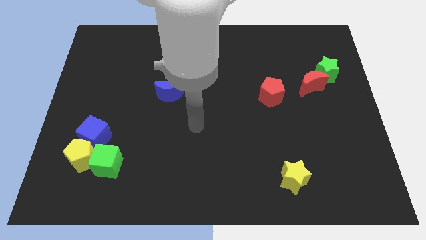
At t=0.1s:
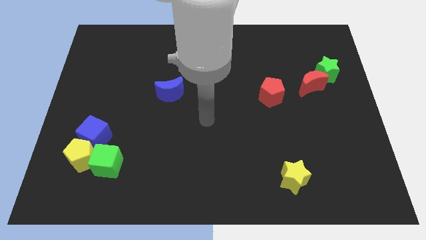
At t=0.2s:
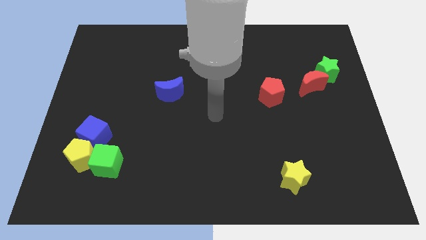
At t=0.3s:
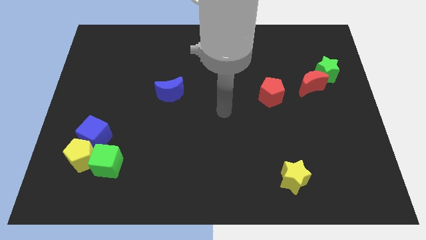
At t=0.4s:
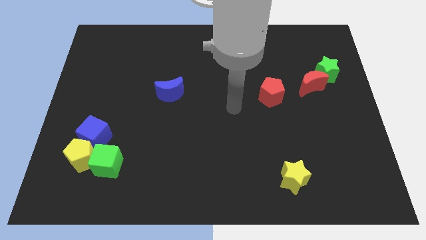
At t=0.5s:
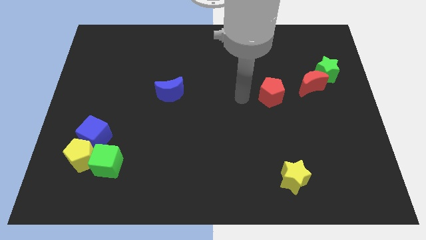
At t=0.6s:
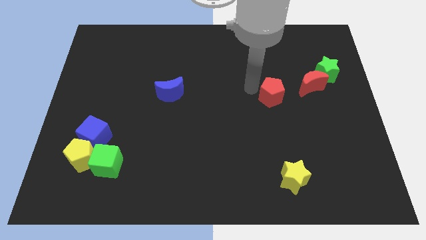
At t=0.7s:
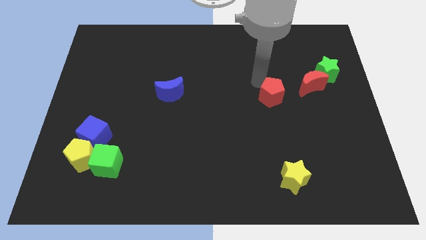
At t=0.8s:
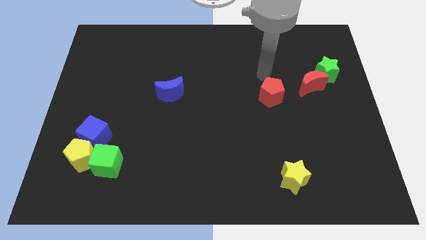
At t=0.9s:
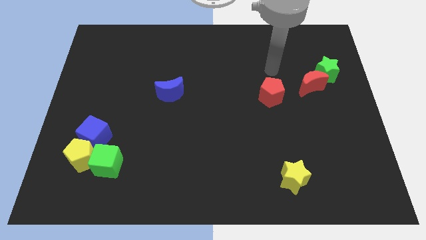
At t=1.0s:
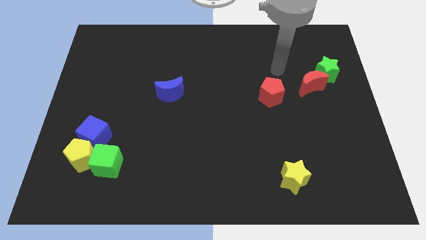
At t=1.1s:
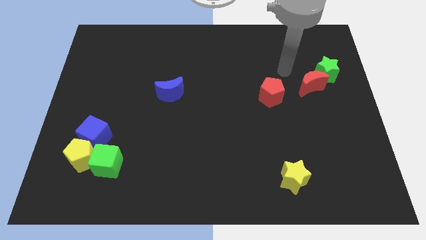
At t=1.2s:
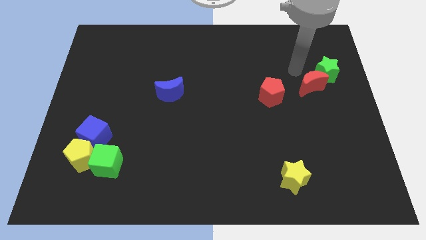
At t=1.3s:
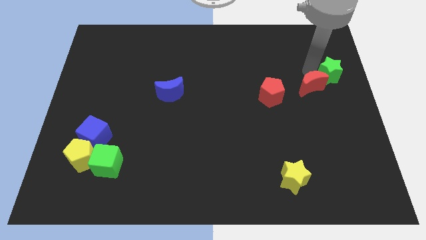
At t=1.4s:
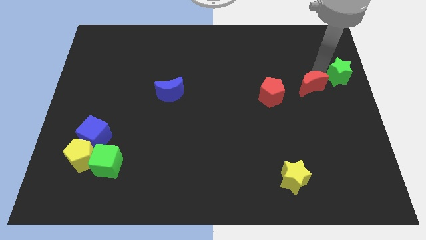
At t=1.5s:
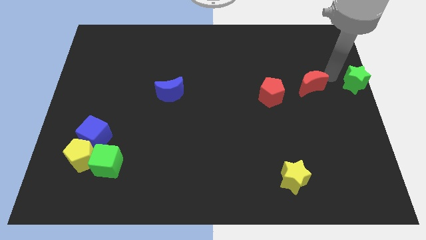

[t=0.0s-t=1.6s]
move the red moon away from the green star

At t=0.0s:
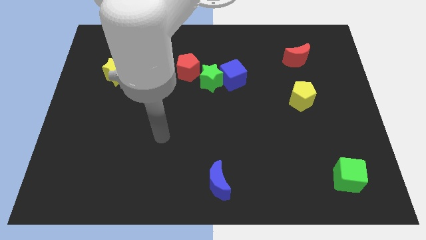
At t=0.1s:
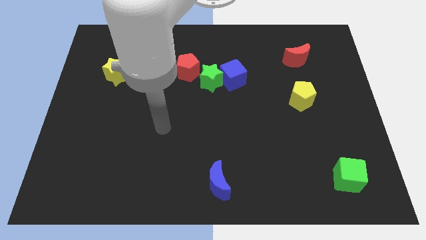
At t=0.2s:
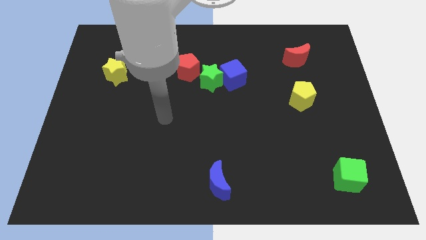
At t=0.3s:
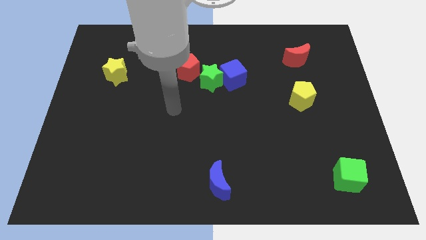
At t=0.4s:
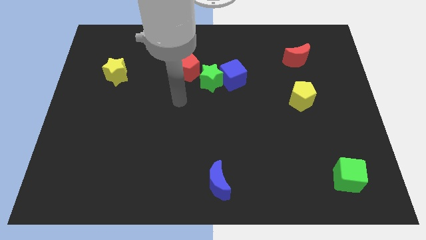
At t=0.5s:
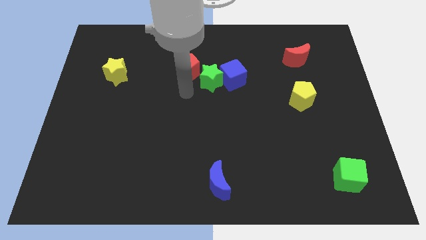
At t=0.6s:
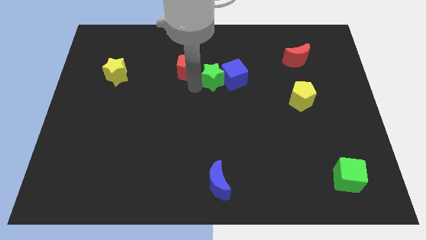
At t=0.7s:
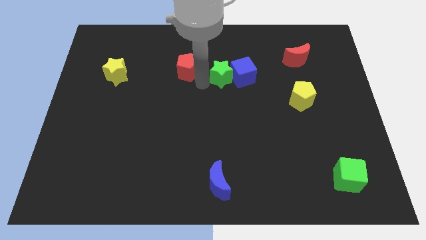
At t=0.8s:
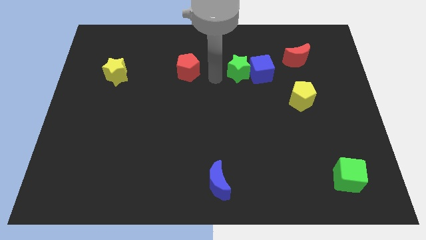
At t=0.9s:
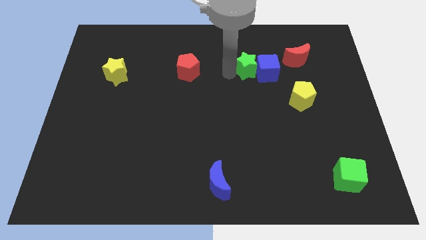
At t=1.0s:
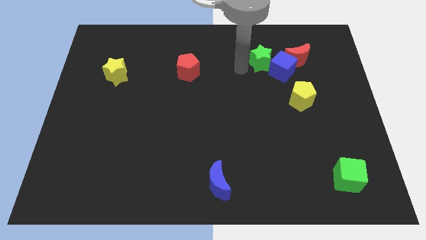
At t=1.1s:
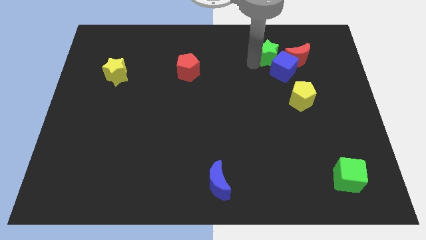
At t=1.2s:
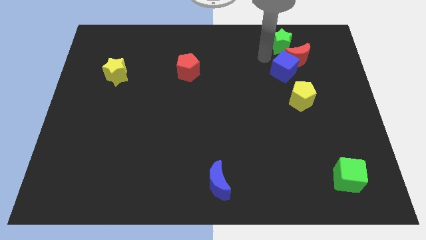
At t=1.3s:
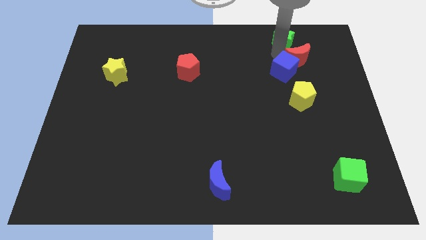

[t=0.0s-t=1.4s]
move the blue cube away from the green star

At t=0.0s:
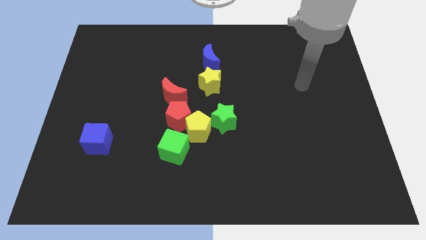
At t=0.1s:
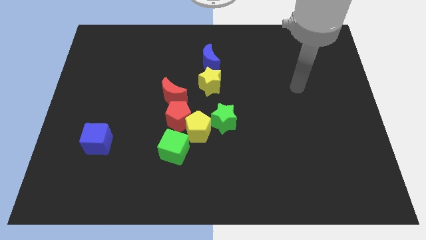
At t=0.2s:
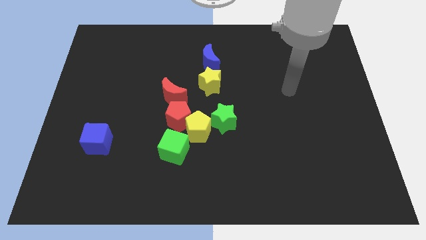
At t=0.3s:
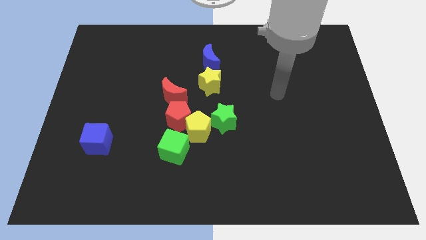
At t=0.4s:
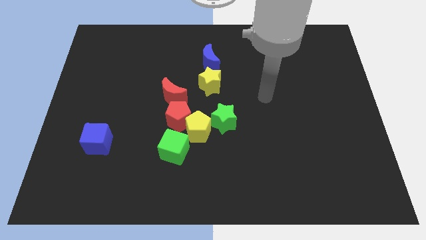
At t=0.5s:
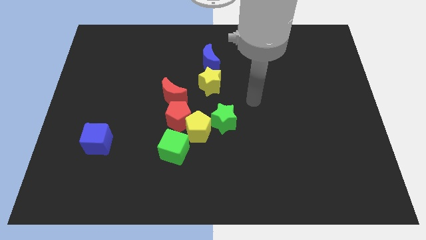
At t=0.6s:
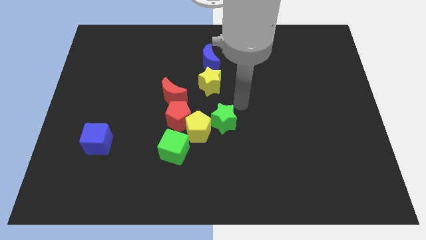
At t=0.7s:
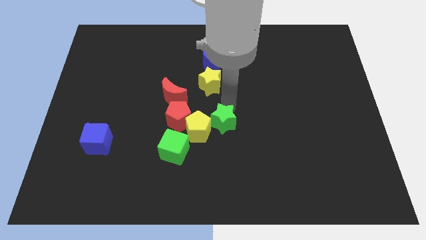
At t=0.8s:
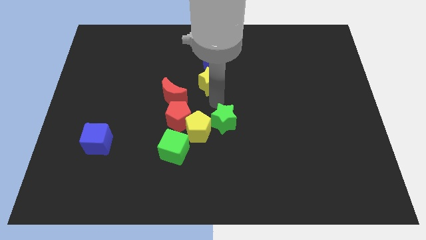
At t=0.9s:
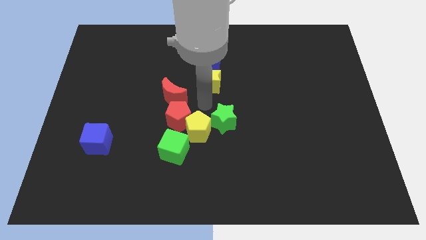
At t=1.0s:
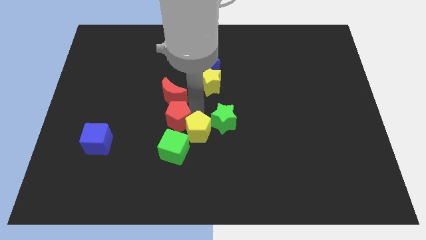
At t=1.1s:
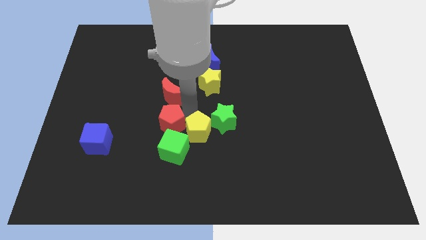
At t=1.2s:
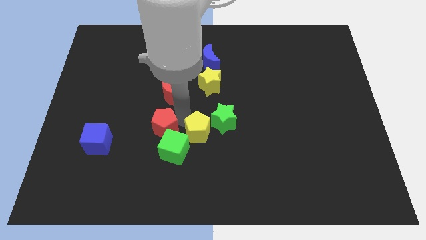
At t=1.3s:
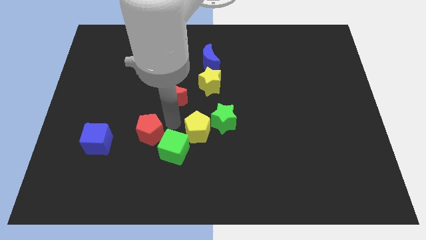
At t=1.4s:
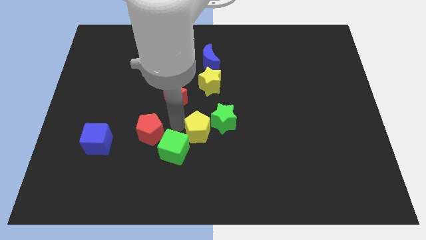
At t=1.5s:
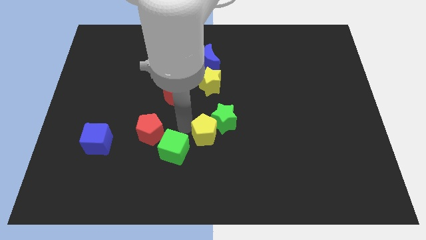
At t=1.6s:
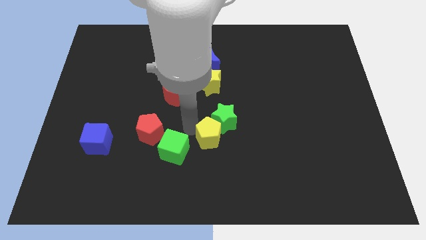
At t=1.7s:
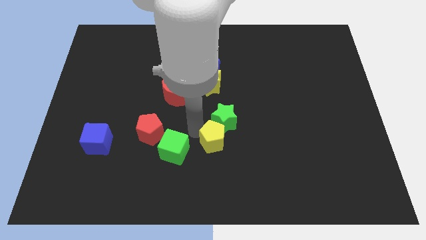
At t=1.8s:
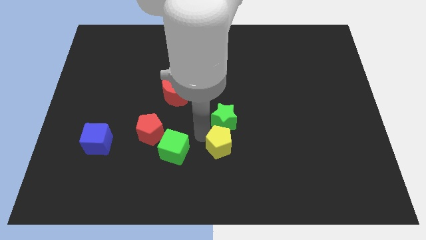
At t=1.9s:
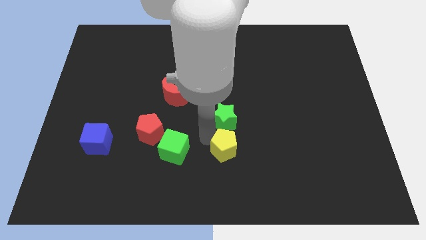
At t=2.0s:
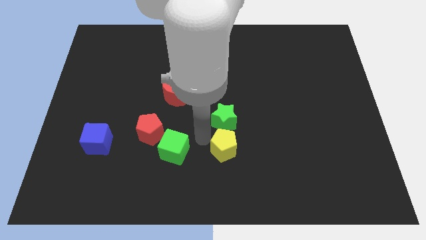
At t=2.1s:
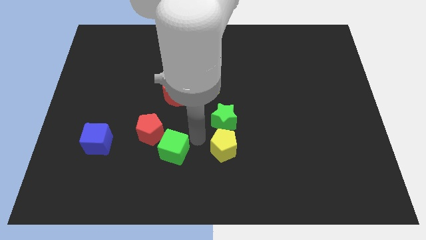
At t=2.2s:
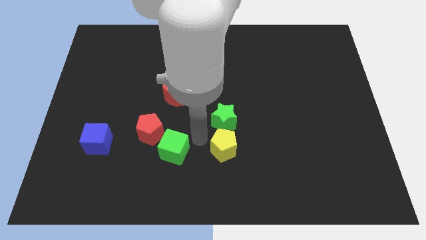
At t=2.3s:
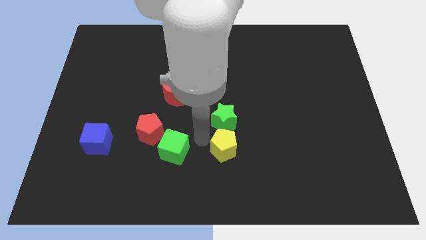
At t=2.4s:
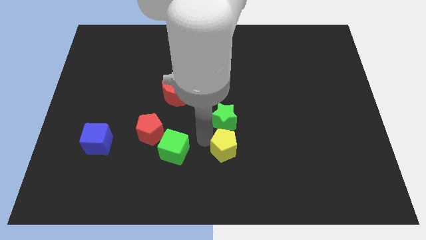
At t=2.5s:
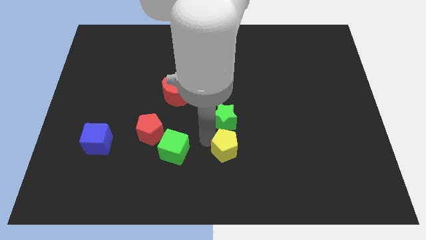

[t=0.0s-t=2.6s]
move the yellow pentagon away from the red pentagon, green star, and green cube

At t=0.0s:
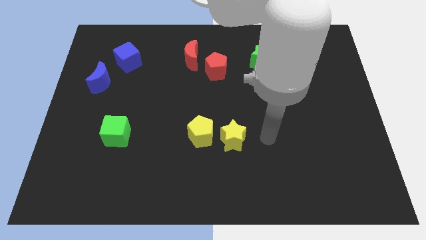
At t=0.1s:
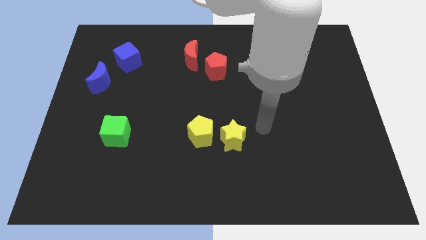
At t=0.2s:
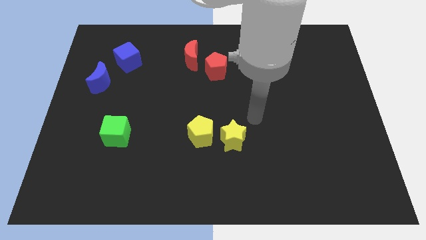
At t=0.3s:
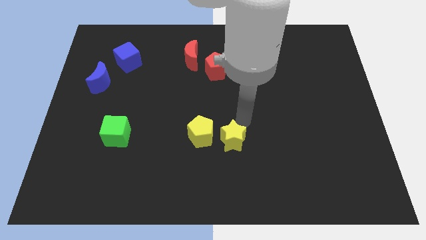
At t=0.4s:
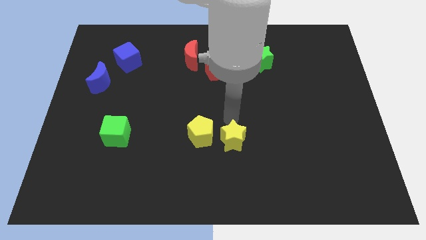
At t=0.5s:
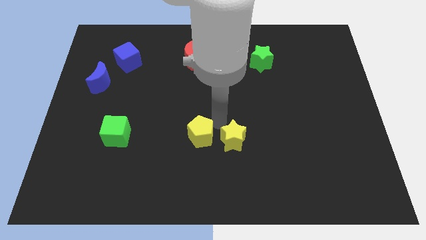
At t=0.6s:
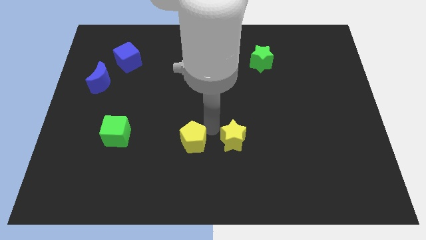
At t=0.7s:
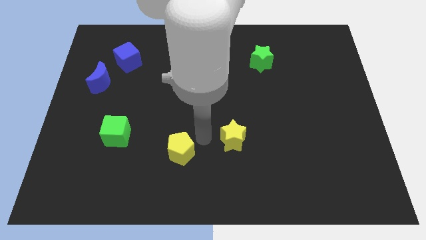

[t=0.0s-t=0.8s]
separate the yellow star from the yellow pentagon

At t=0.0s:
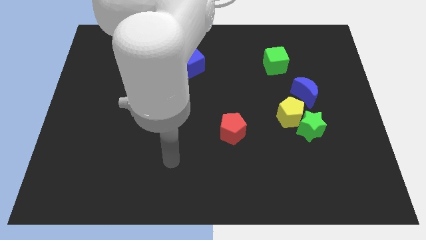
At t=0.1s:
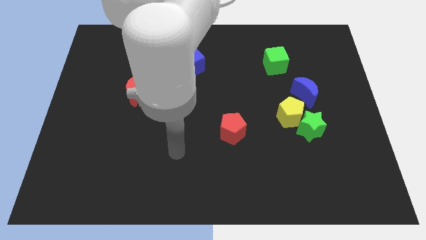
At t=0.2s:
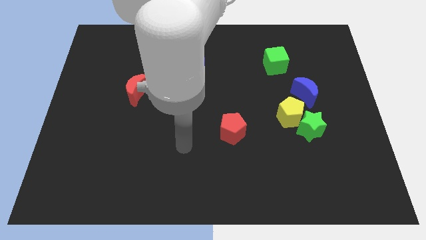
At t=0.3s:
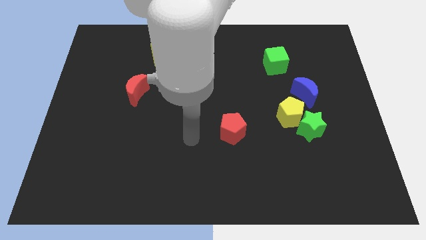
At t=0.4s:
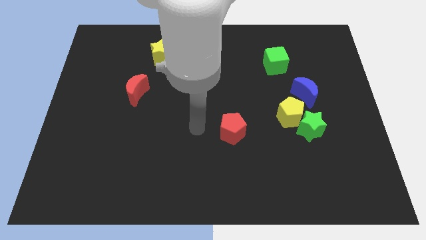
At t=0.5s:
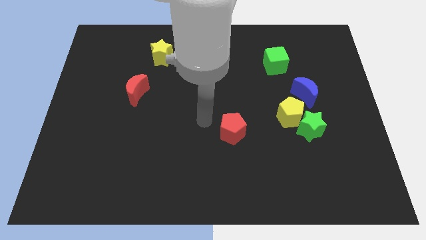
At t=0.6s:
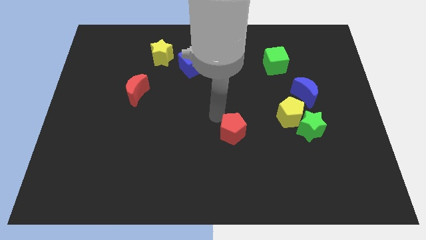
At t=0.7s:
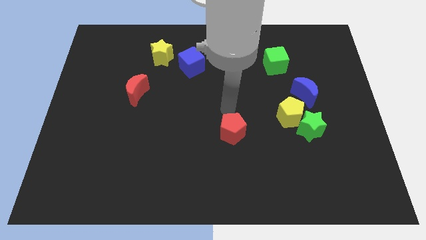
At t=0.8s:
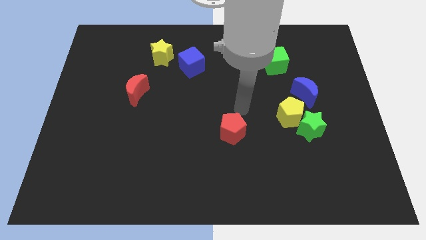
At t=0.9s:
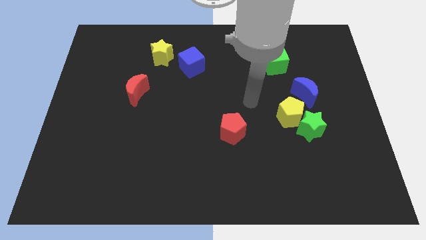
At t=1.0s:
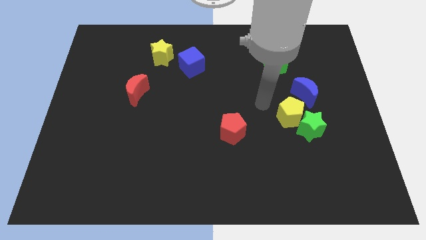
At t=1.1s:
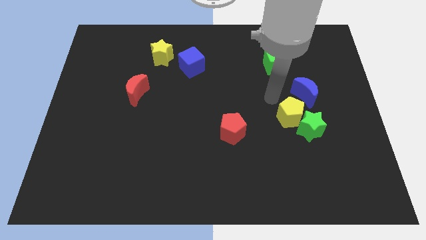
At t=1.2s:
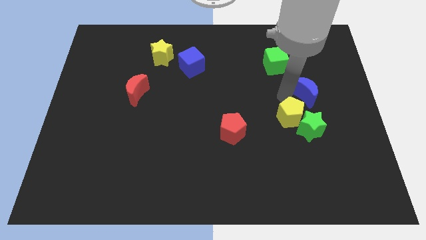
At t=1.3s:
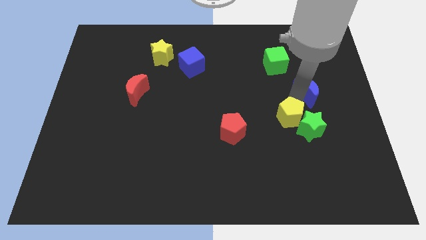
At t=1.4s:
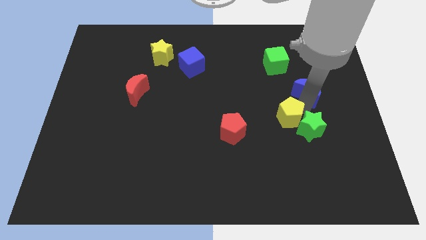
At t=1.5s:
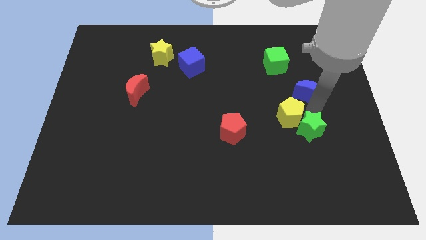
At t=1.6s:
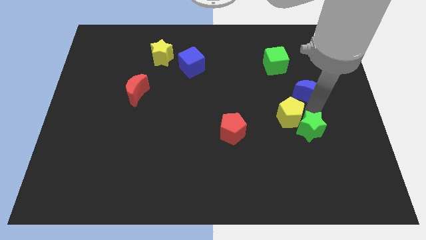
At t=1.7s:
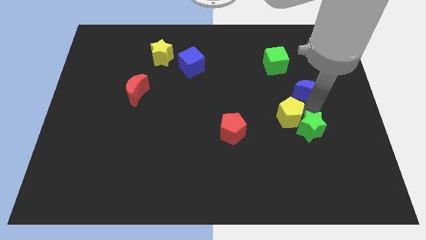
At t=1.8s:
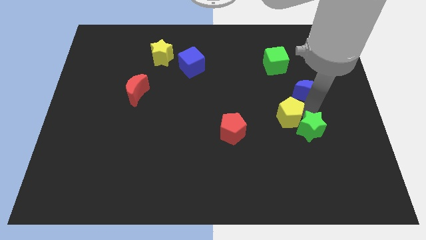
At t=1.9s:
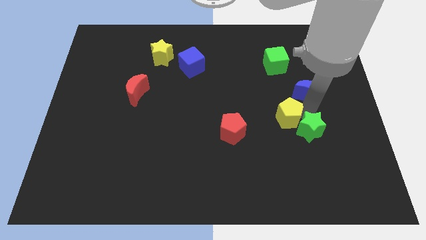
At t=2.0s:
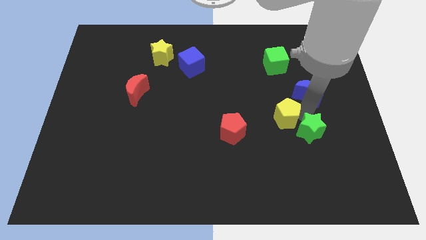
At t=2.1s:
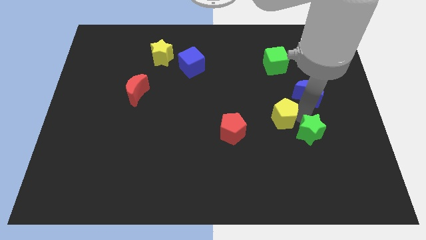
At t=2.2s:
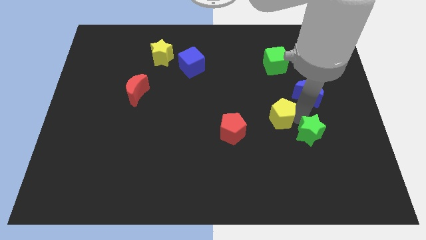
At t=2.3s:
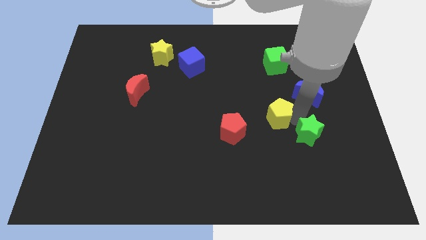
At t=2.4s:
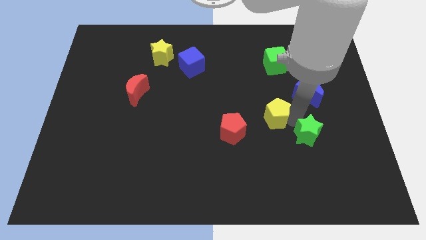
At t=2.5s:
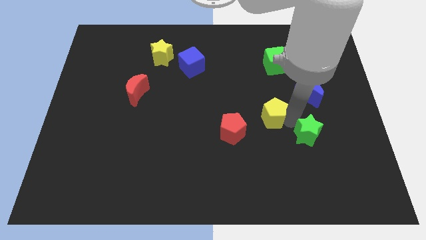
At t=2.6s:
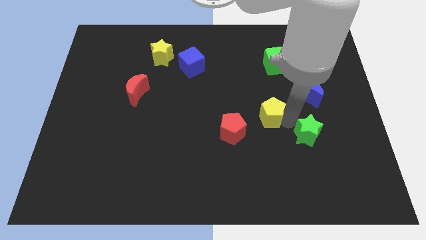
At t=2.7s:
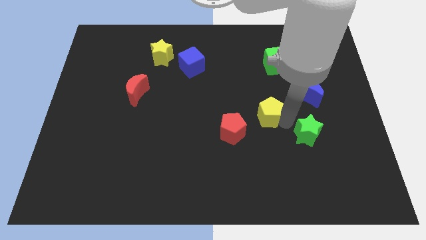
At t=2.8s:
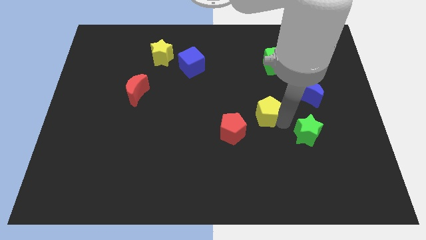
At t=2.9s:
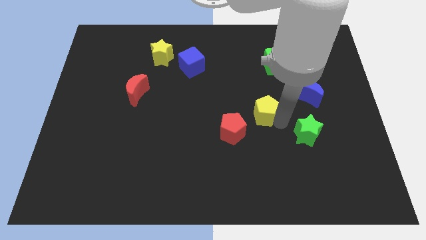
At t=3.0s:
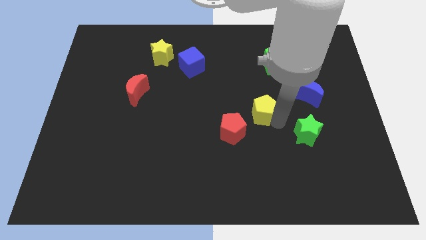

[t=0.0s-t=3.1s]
pull the yellow pentagon apart from the green star and blue moon

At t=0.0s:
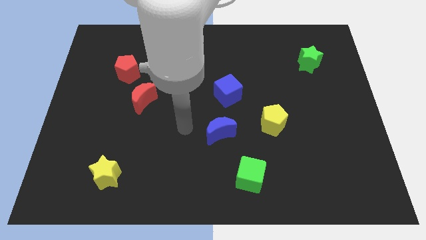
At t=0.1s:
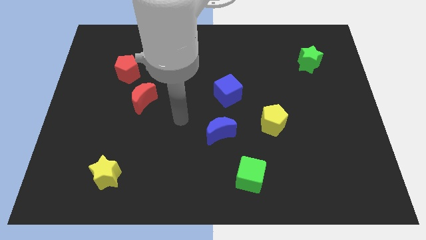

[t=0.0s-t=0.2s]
separate the red moon from the red pentagon
